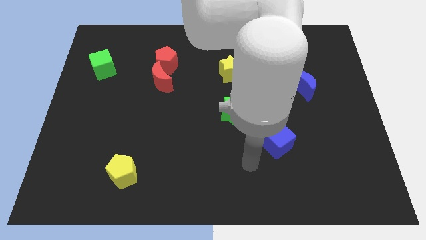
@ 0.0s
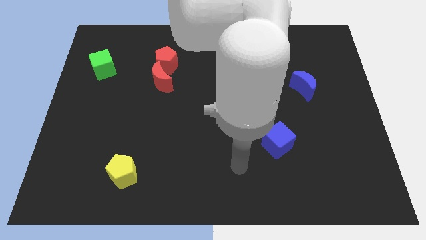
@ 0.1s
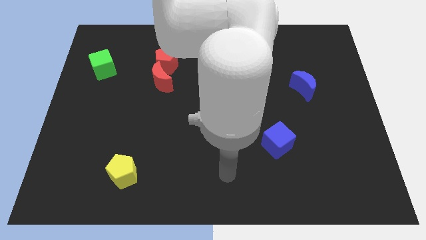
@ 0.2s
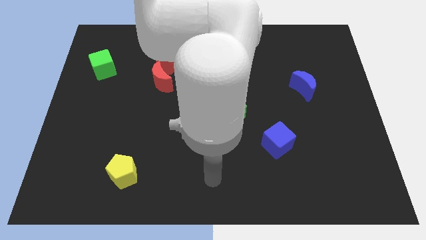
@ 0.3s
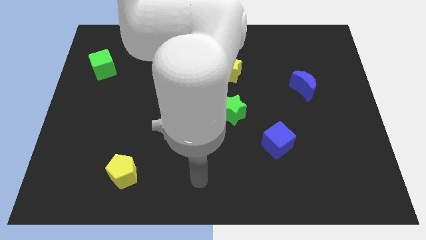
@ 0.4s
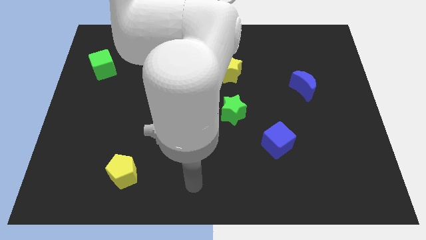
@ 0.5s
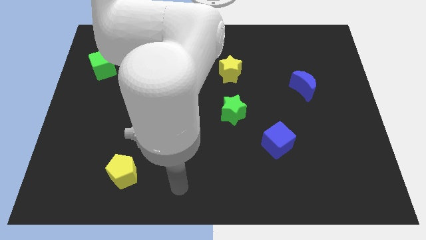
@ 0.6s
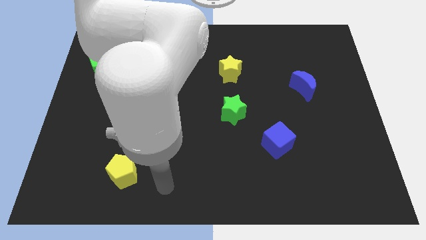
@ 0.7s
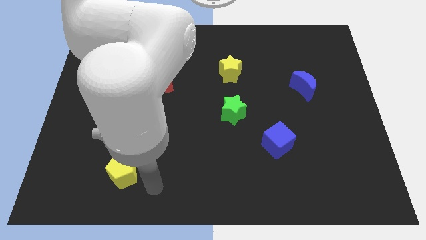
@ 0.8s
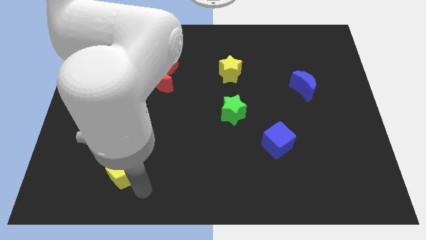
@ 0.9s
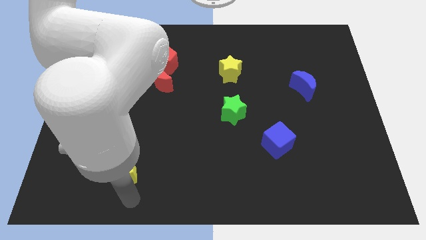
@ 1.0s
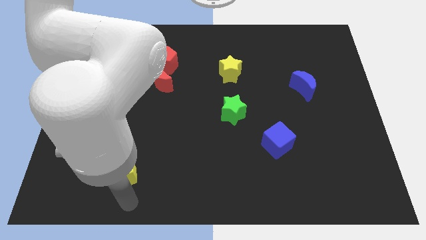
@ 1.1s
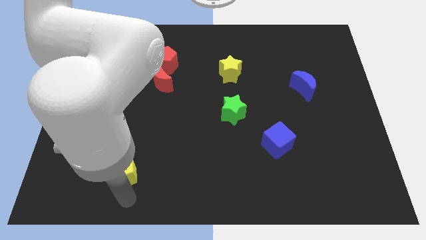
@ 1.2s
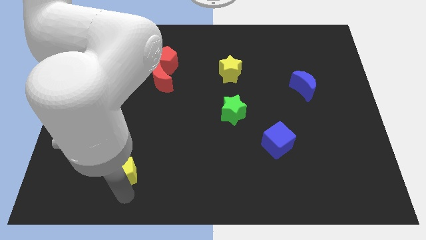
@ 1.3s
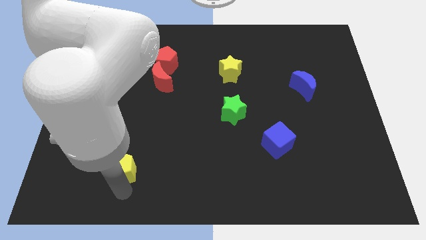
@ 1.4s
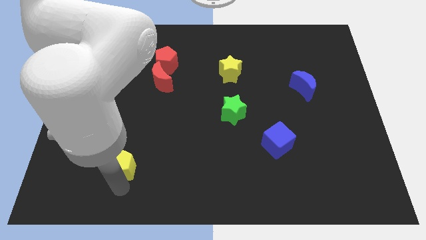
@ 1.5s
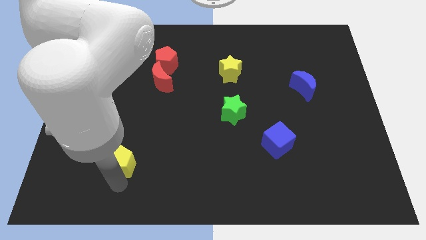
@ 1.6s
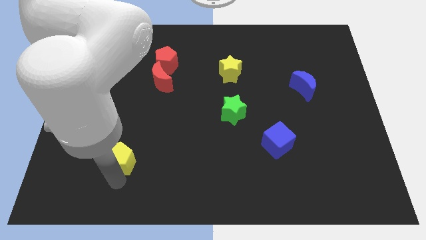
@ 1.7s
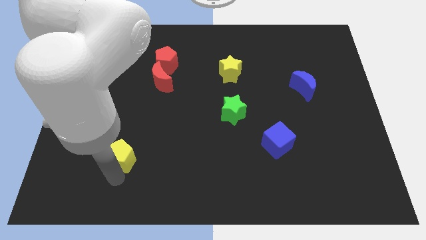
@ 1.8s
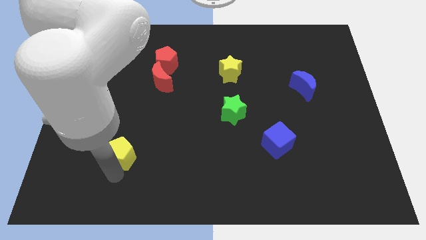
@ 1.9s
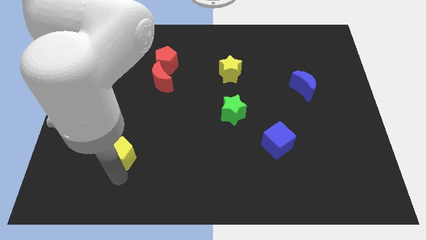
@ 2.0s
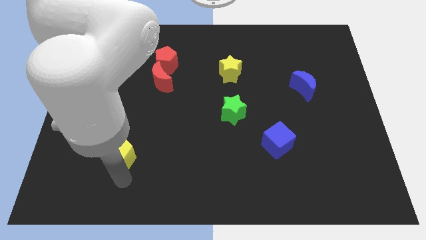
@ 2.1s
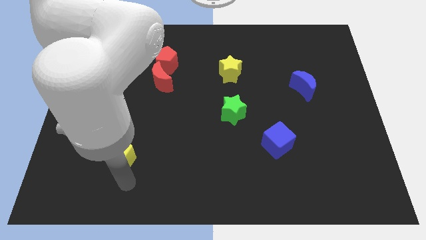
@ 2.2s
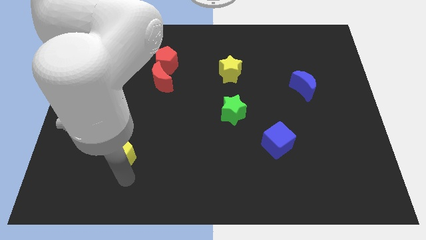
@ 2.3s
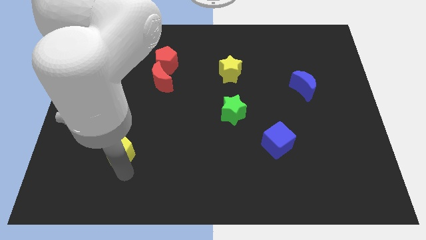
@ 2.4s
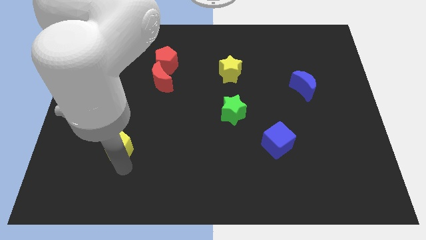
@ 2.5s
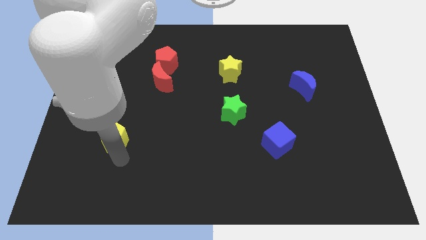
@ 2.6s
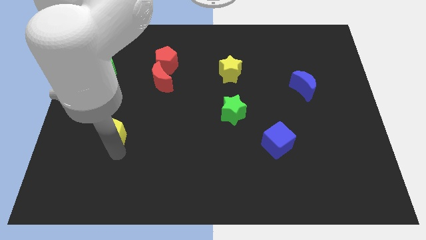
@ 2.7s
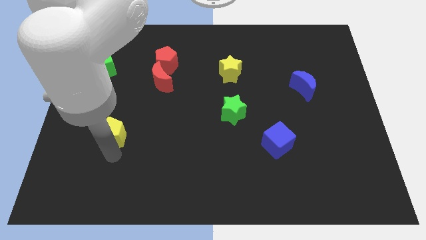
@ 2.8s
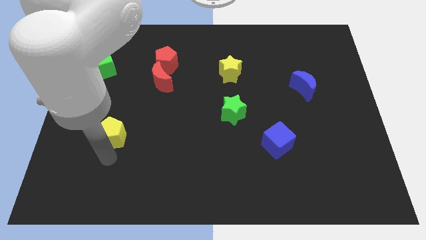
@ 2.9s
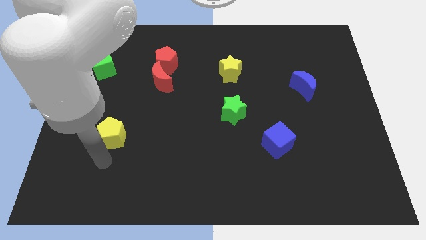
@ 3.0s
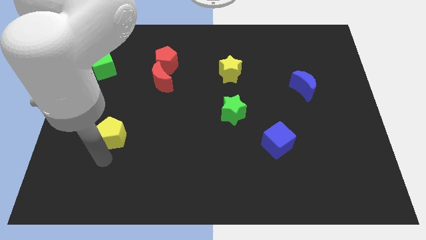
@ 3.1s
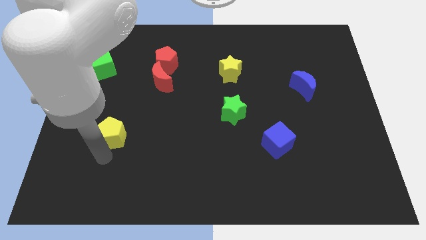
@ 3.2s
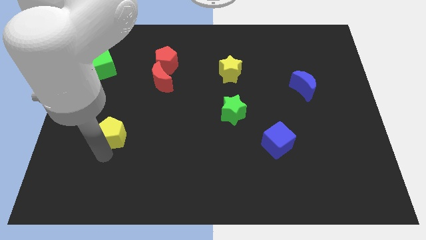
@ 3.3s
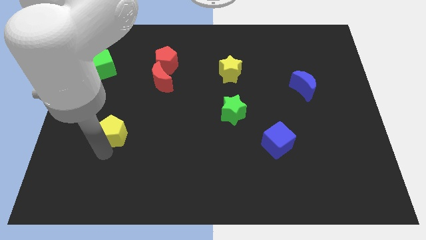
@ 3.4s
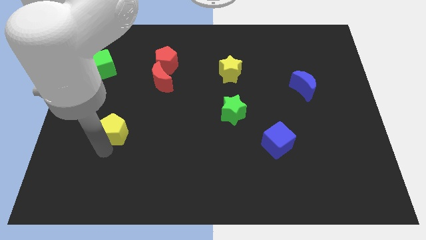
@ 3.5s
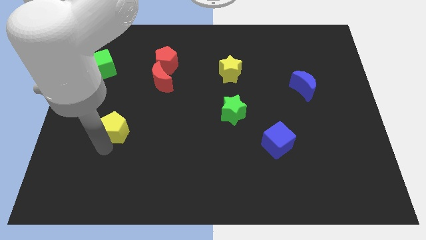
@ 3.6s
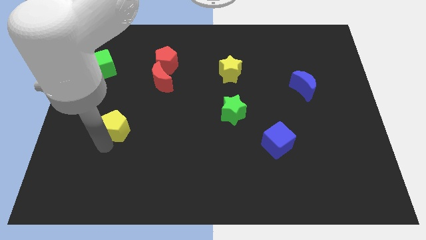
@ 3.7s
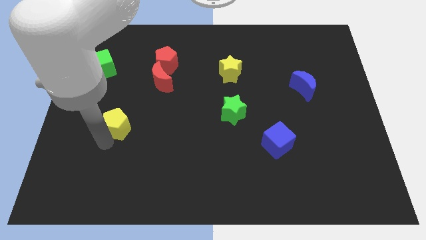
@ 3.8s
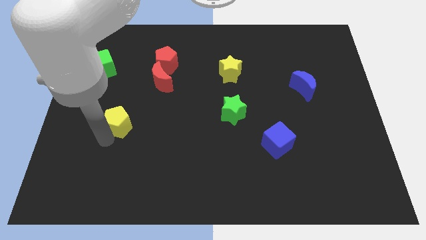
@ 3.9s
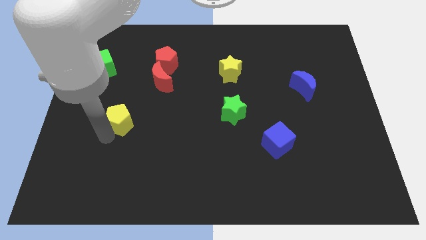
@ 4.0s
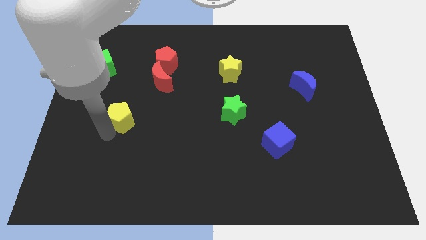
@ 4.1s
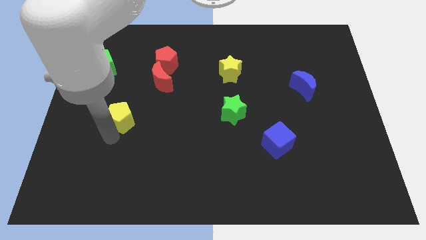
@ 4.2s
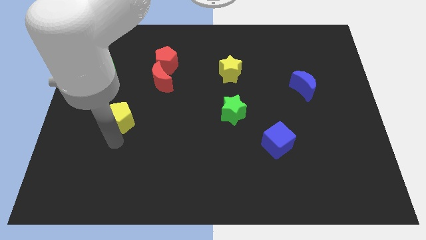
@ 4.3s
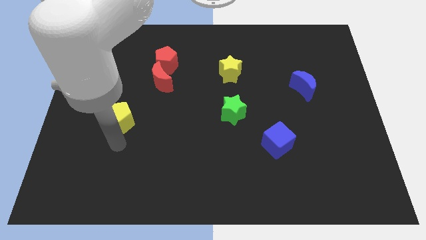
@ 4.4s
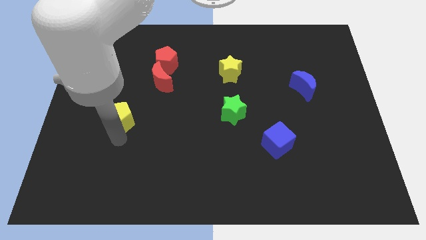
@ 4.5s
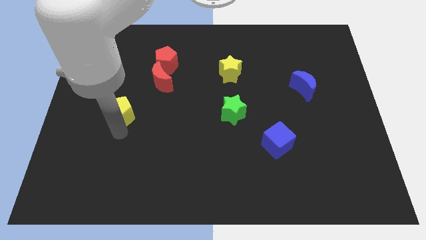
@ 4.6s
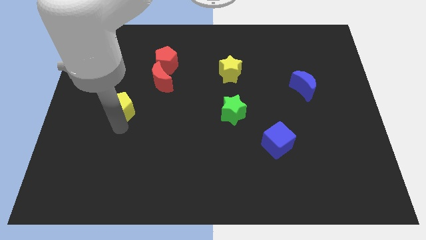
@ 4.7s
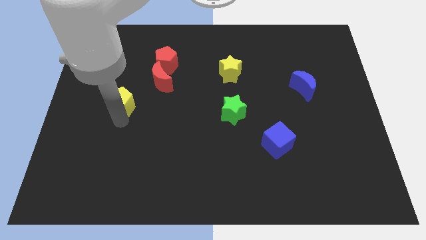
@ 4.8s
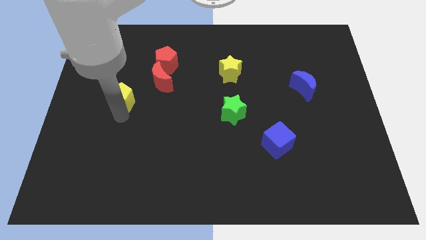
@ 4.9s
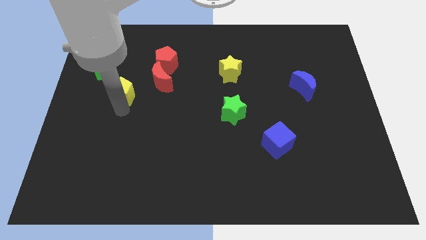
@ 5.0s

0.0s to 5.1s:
move the yellow pentagon left of the red moon

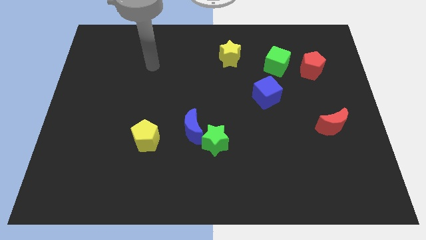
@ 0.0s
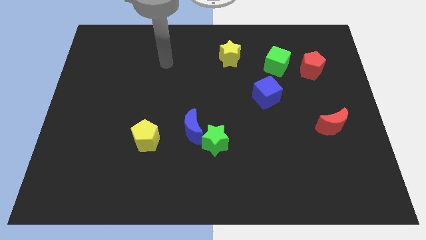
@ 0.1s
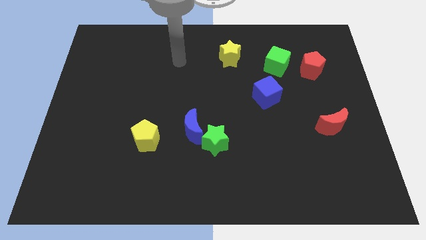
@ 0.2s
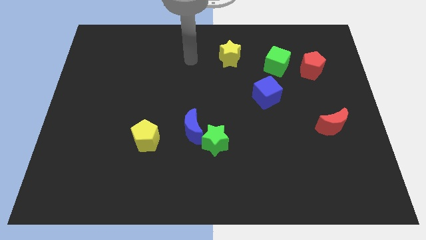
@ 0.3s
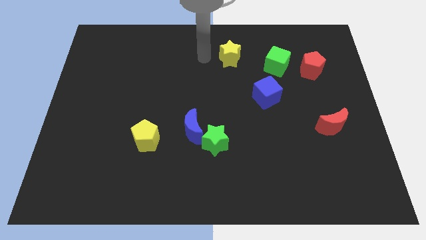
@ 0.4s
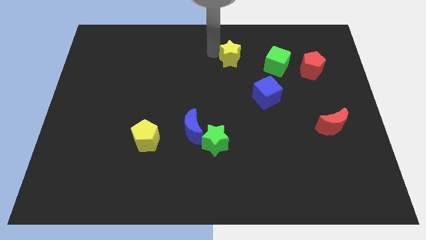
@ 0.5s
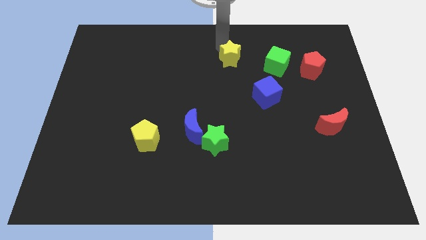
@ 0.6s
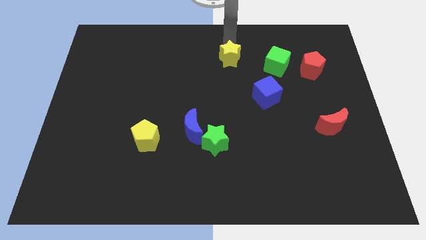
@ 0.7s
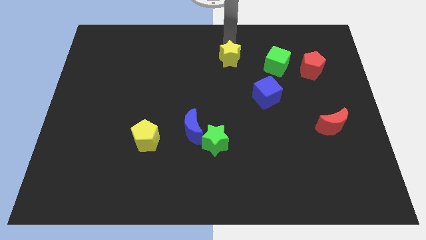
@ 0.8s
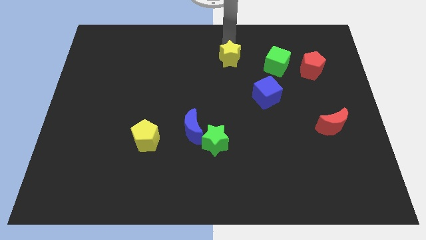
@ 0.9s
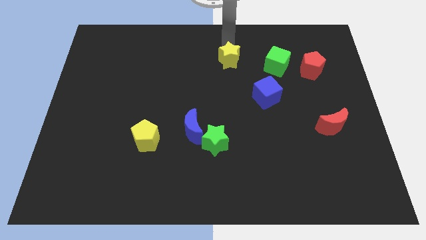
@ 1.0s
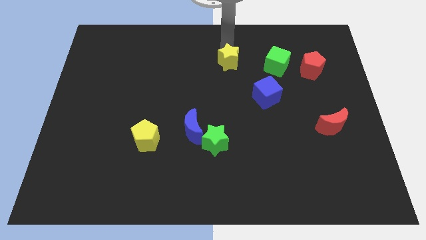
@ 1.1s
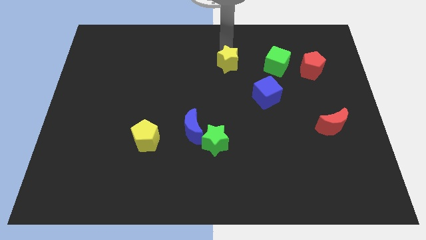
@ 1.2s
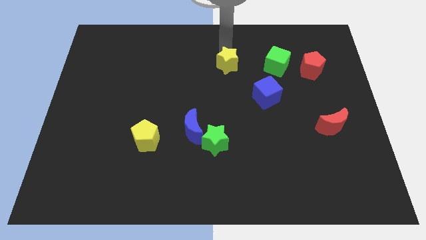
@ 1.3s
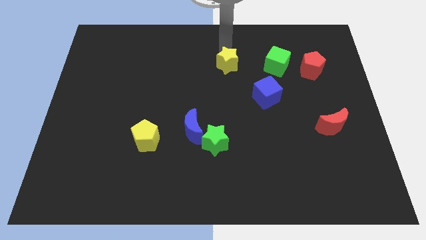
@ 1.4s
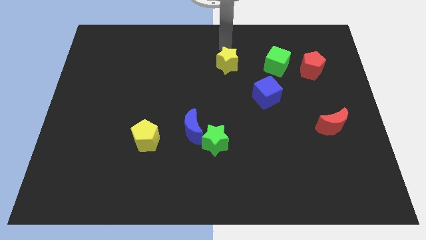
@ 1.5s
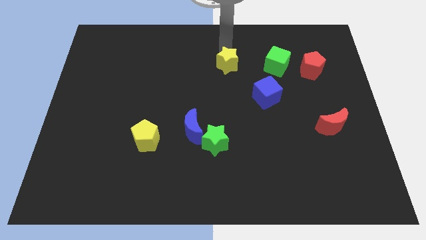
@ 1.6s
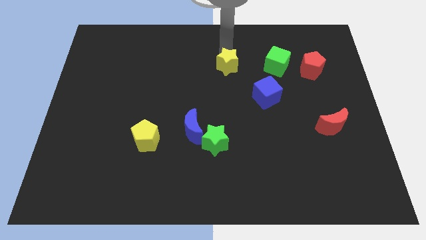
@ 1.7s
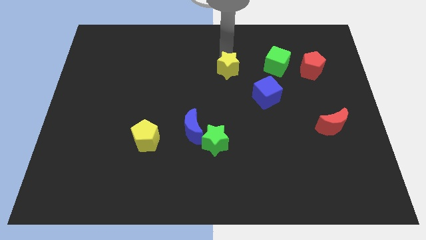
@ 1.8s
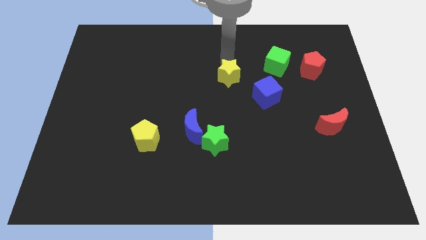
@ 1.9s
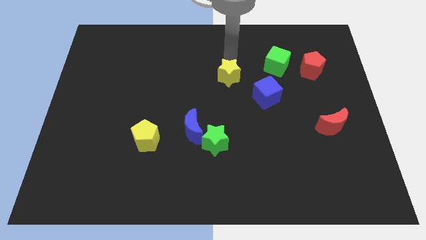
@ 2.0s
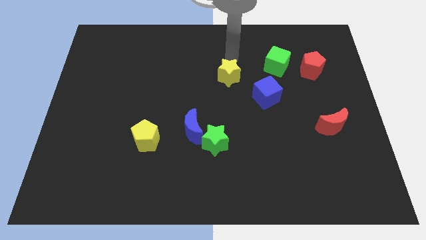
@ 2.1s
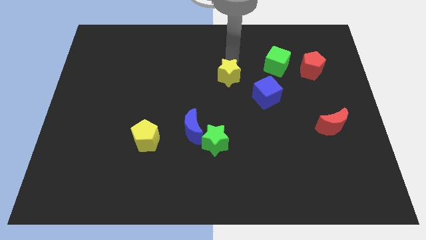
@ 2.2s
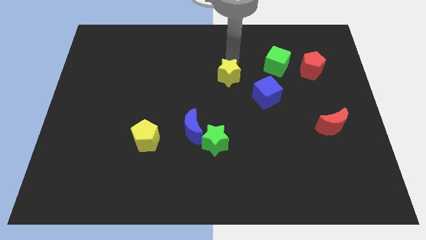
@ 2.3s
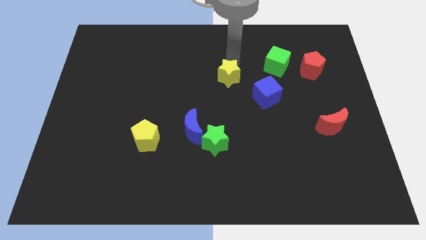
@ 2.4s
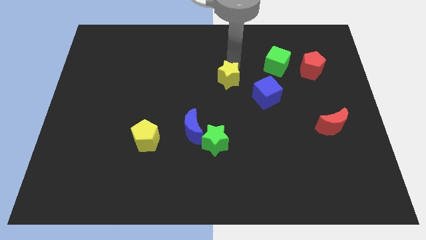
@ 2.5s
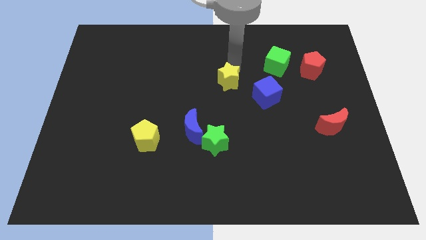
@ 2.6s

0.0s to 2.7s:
put the yellow star left of the blue cube
